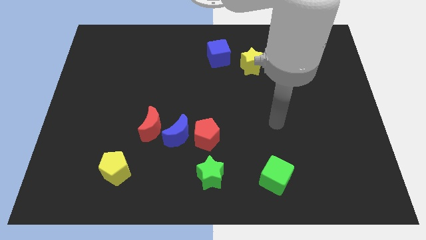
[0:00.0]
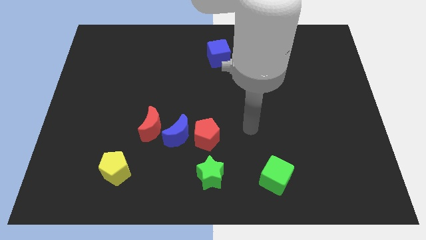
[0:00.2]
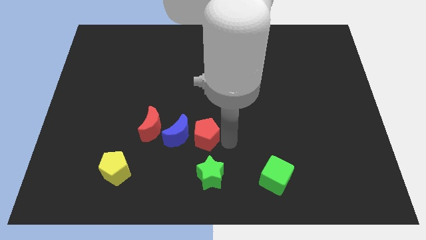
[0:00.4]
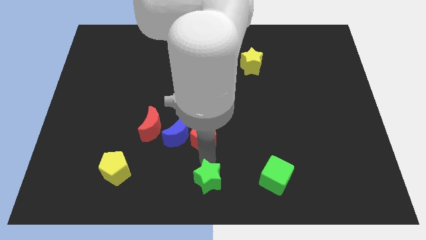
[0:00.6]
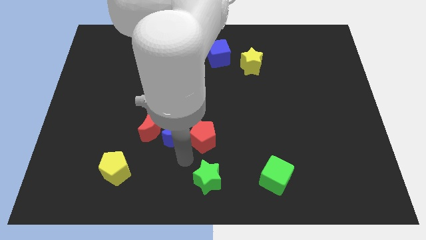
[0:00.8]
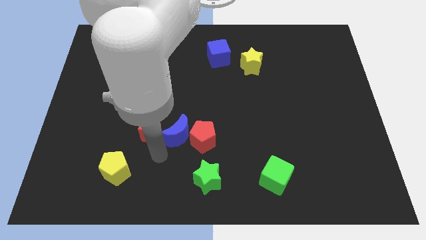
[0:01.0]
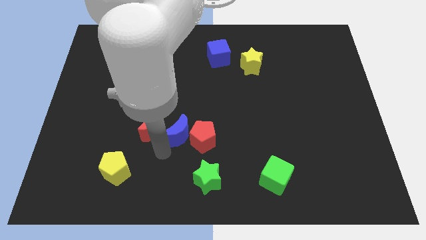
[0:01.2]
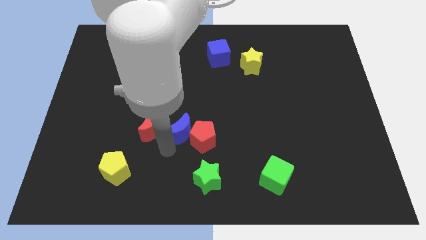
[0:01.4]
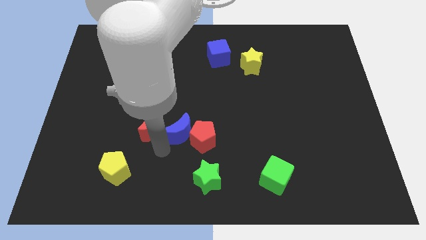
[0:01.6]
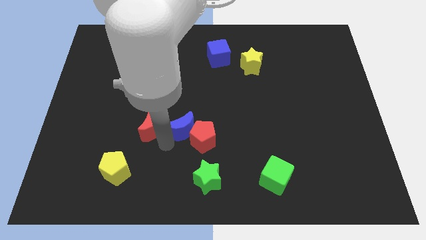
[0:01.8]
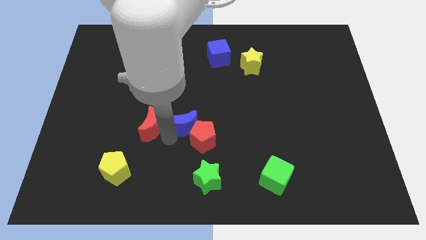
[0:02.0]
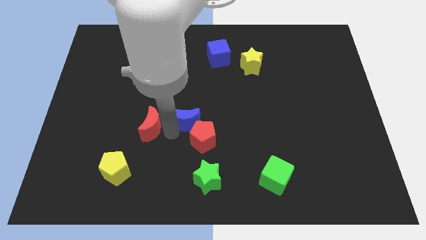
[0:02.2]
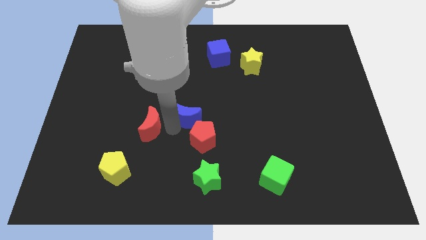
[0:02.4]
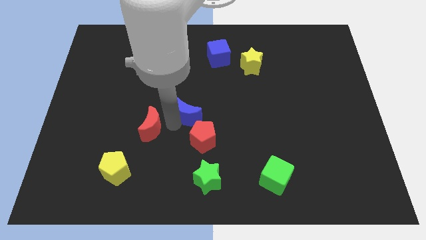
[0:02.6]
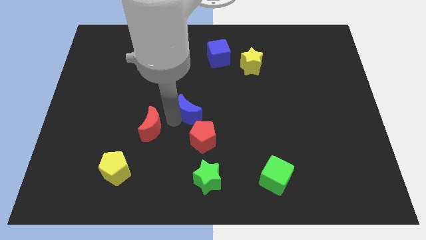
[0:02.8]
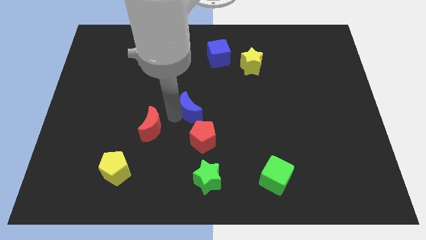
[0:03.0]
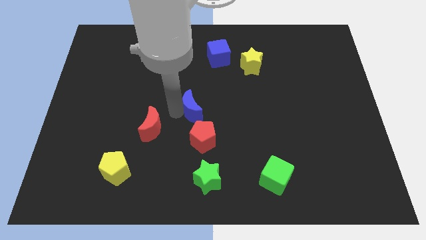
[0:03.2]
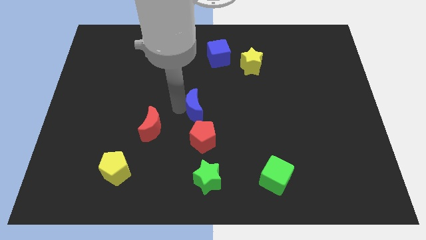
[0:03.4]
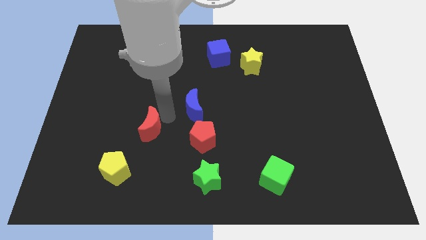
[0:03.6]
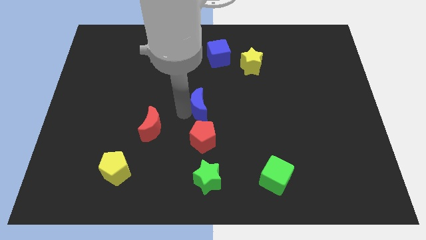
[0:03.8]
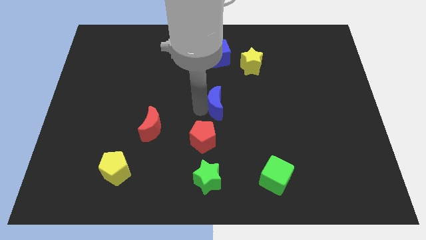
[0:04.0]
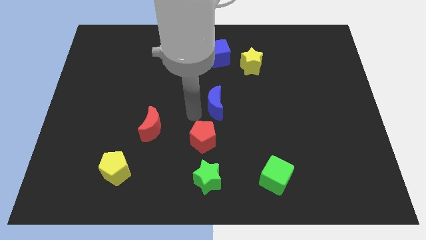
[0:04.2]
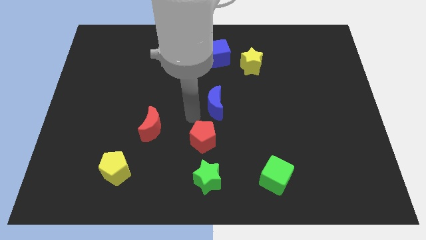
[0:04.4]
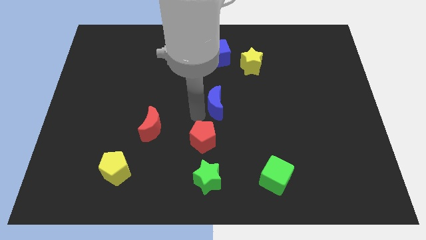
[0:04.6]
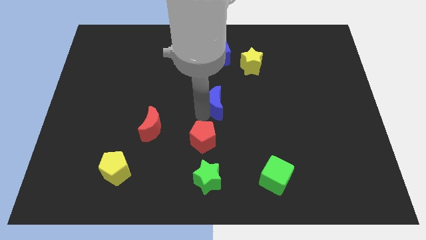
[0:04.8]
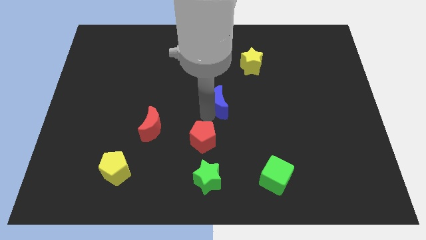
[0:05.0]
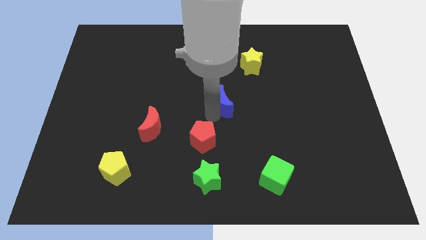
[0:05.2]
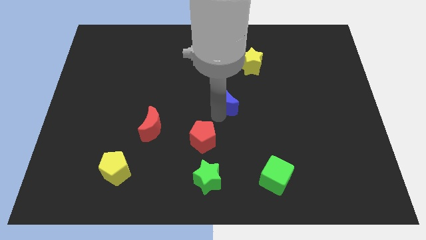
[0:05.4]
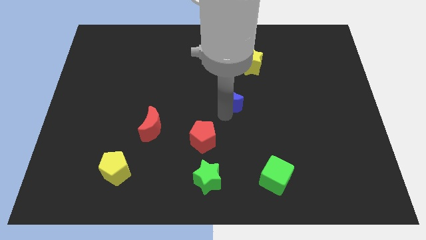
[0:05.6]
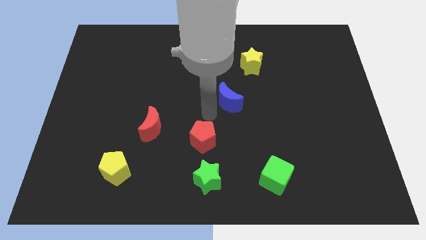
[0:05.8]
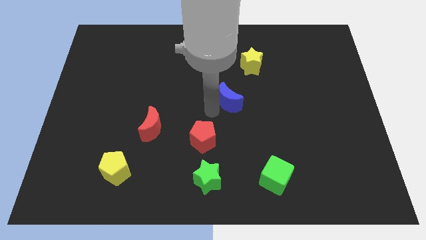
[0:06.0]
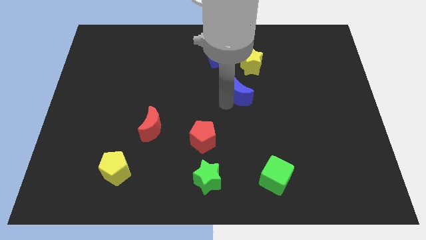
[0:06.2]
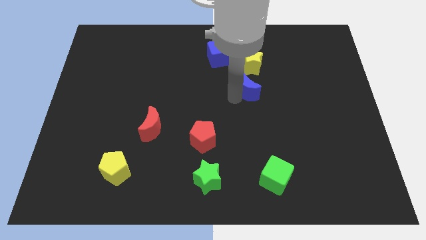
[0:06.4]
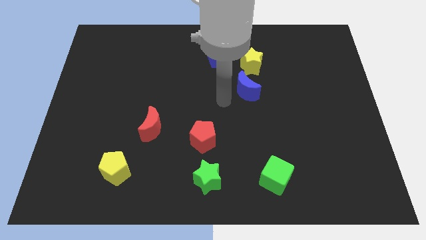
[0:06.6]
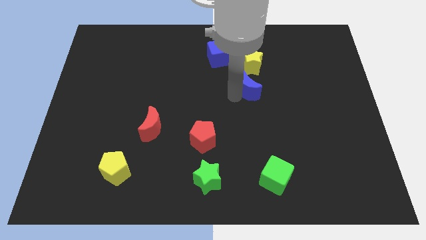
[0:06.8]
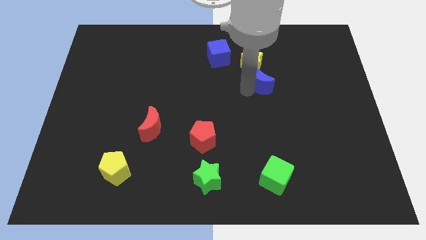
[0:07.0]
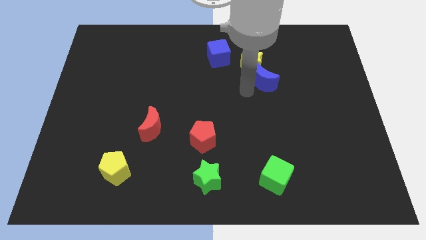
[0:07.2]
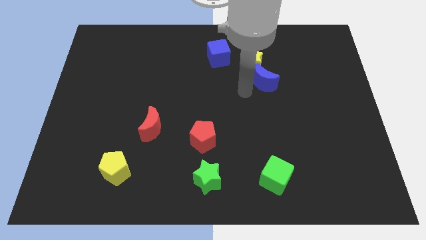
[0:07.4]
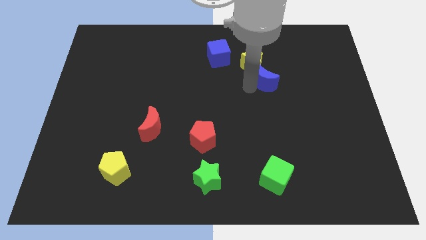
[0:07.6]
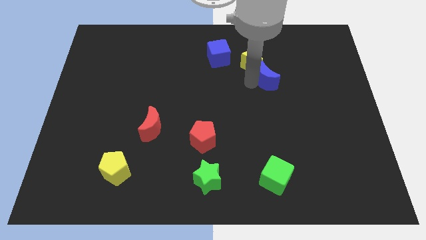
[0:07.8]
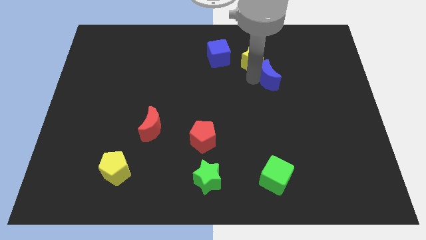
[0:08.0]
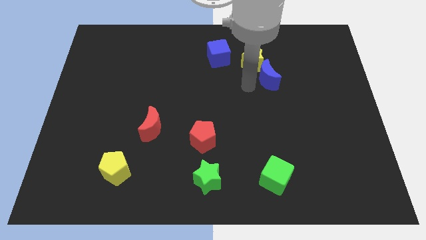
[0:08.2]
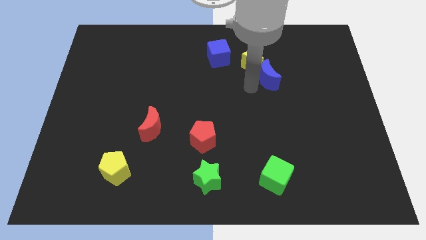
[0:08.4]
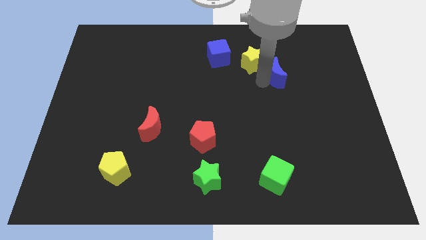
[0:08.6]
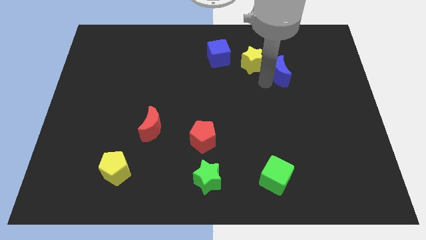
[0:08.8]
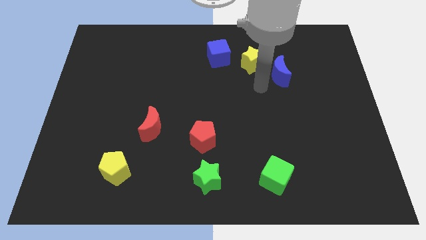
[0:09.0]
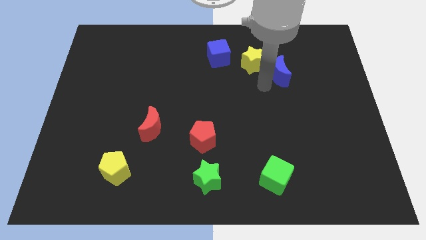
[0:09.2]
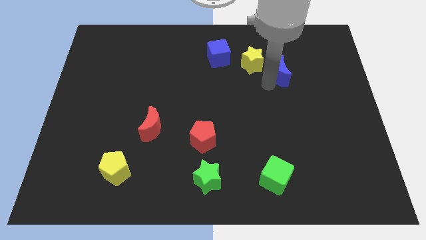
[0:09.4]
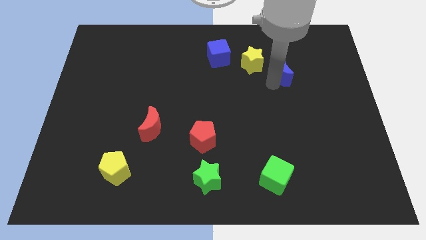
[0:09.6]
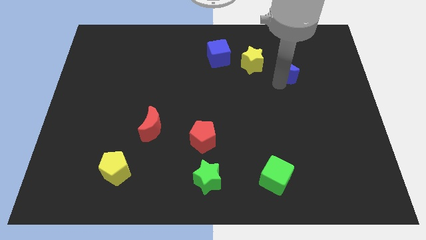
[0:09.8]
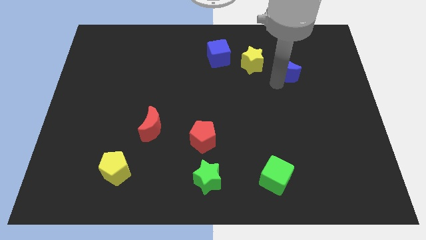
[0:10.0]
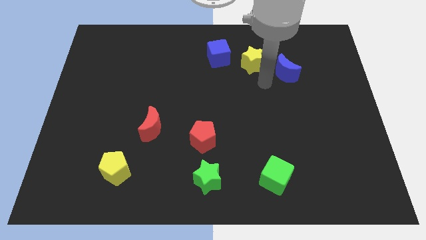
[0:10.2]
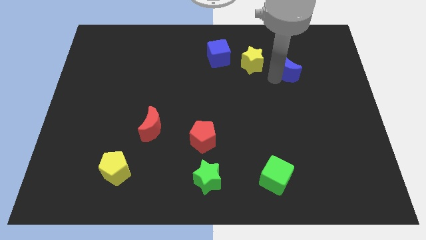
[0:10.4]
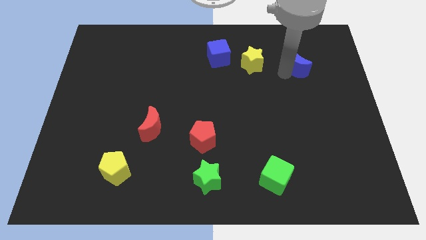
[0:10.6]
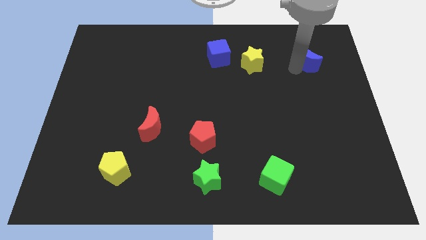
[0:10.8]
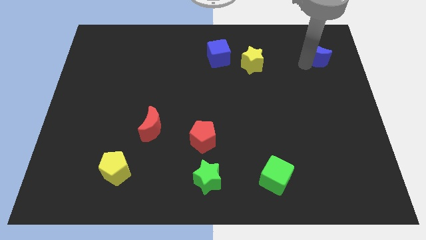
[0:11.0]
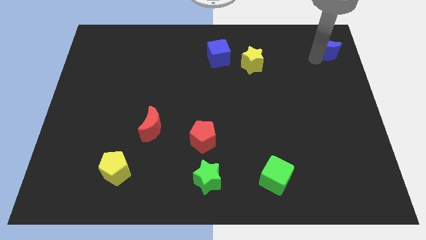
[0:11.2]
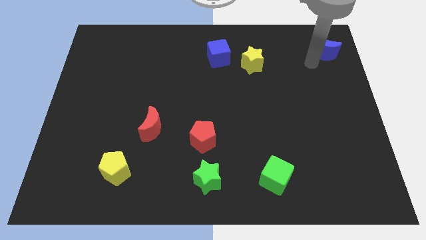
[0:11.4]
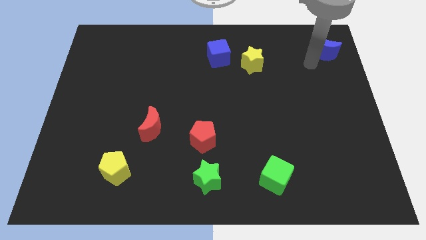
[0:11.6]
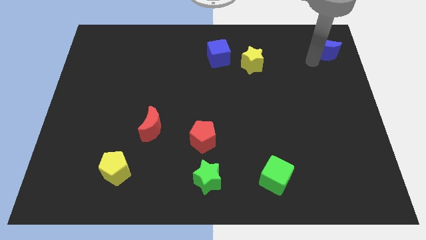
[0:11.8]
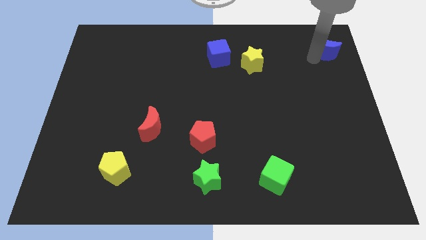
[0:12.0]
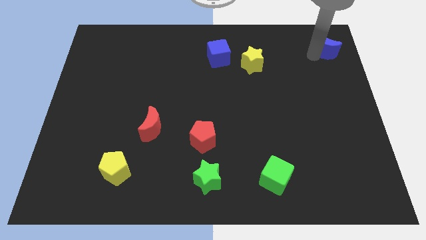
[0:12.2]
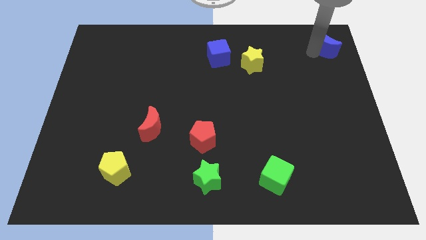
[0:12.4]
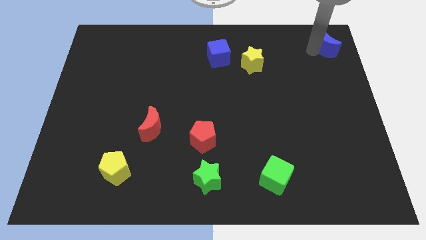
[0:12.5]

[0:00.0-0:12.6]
put the blue moon to the top right of the board

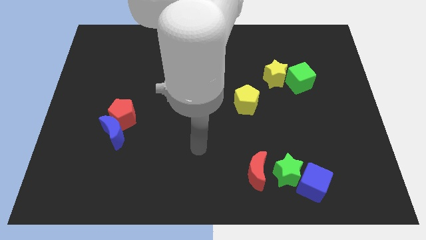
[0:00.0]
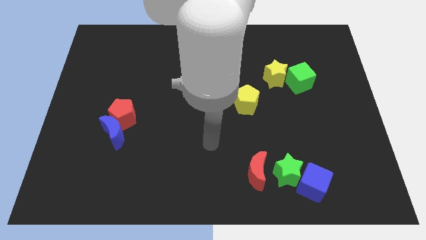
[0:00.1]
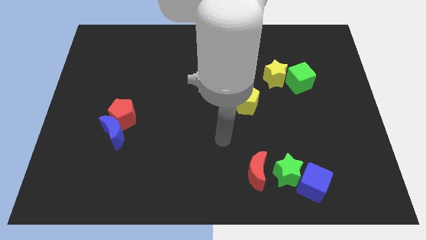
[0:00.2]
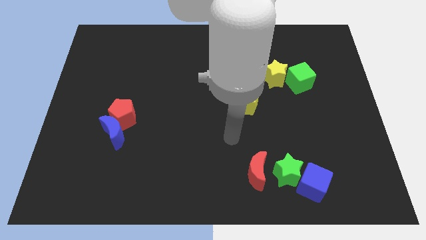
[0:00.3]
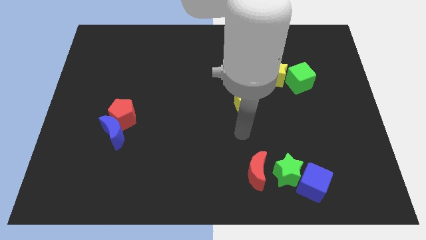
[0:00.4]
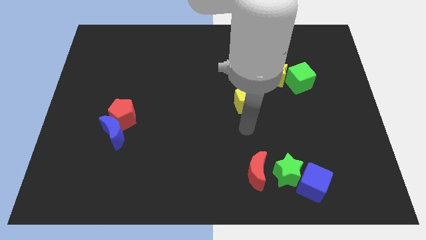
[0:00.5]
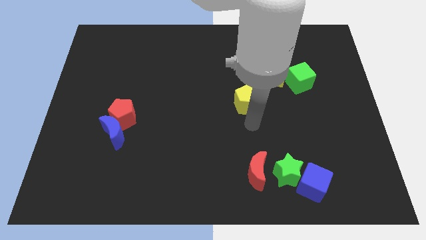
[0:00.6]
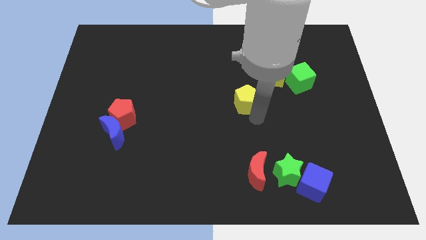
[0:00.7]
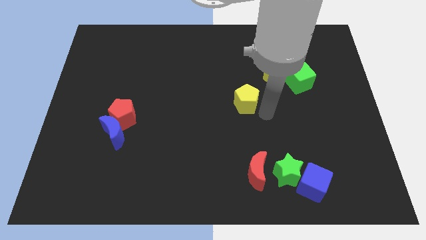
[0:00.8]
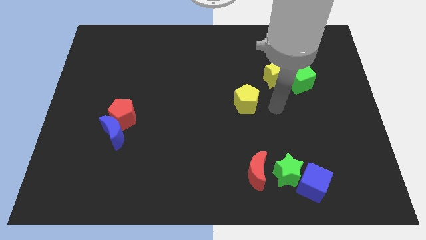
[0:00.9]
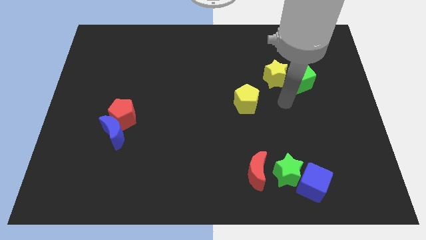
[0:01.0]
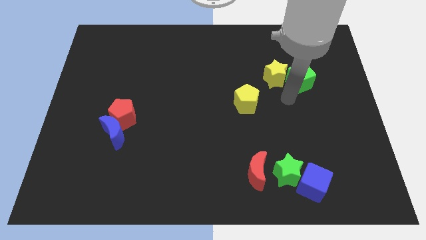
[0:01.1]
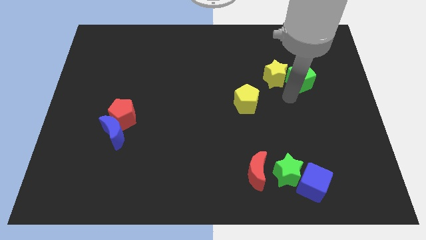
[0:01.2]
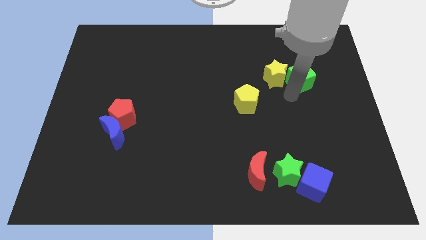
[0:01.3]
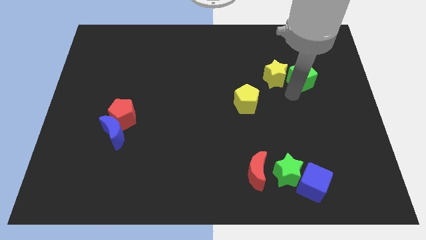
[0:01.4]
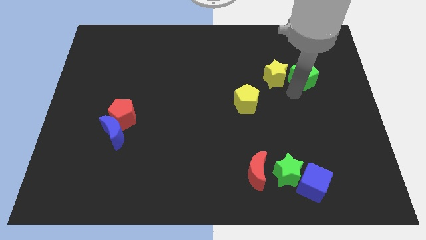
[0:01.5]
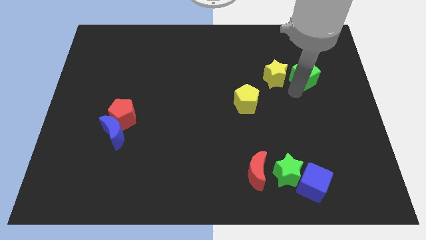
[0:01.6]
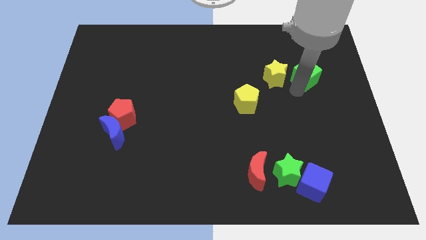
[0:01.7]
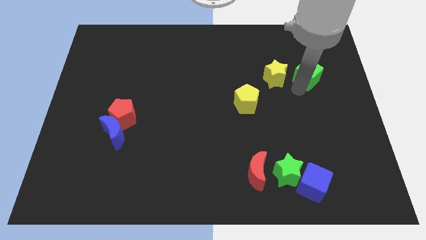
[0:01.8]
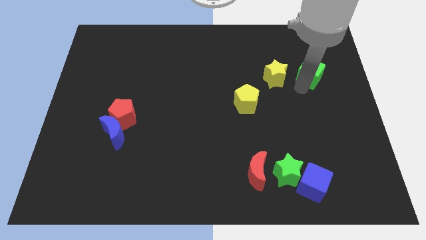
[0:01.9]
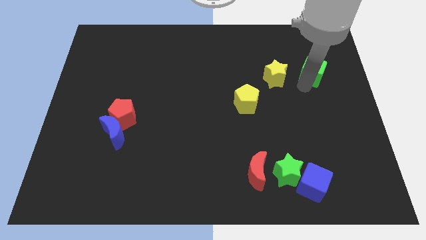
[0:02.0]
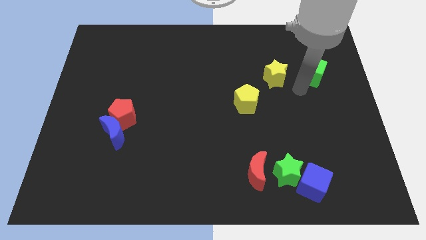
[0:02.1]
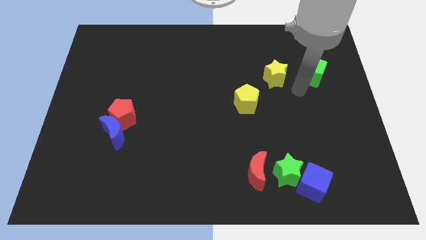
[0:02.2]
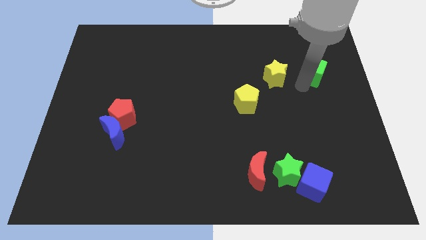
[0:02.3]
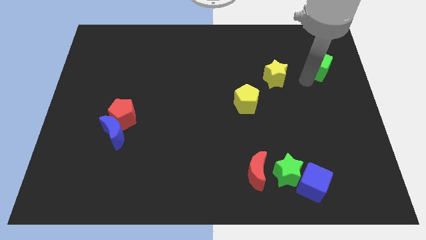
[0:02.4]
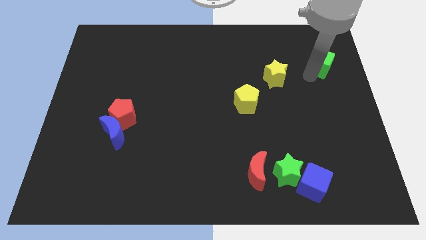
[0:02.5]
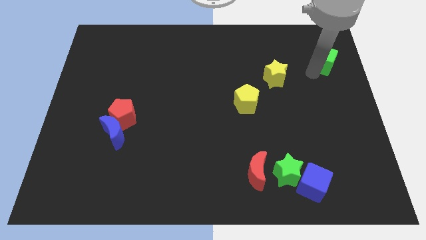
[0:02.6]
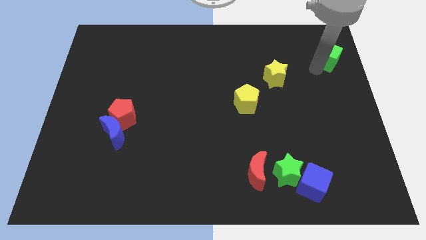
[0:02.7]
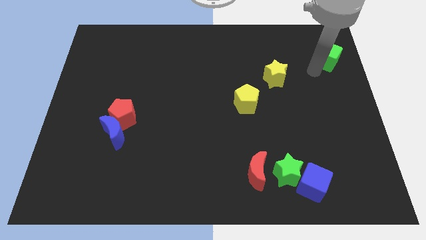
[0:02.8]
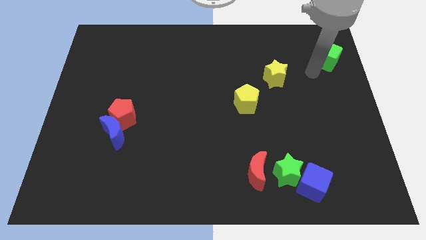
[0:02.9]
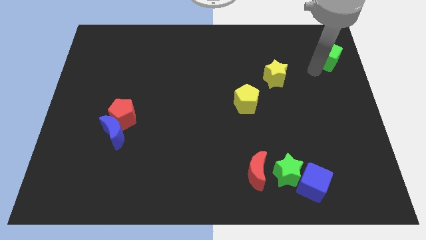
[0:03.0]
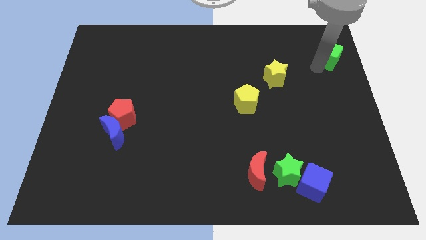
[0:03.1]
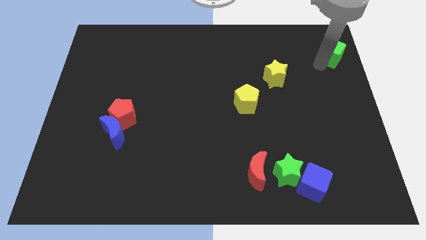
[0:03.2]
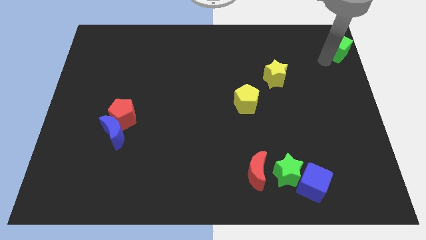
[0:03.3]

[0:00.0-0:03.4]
slide the green cube to the top right
